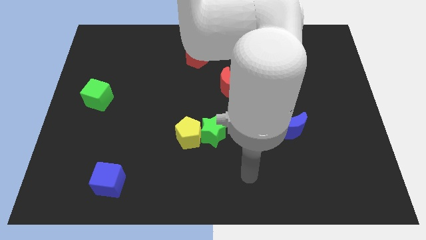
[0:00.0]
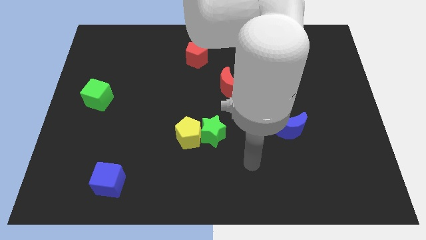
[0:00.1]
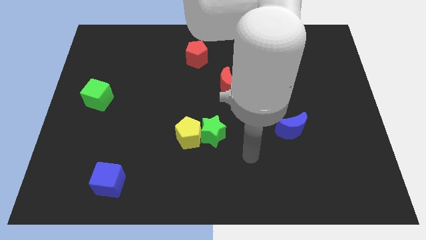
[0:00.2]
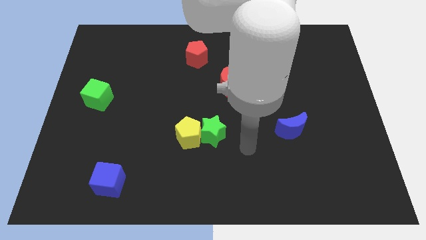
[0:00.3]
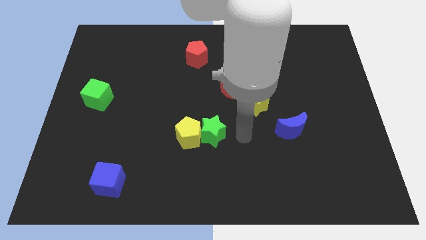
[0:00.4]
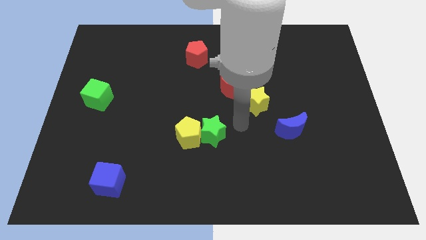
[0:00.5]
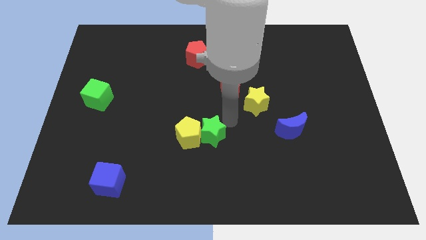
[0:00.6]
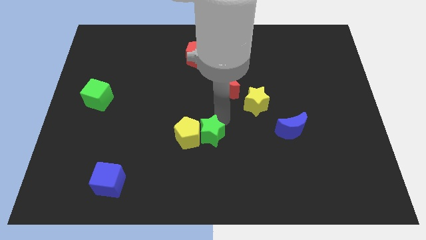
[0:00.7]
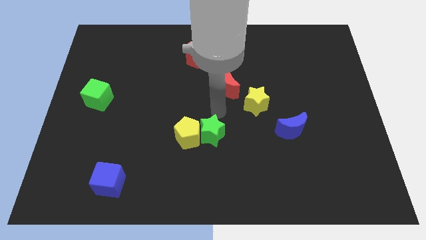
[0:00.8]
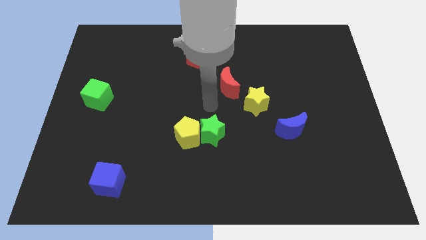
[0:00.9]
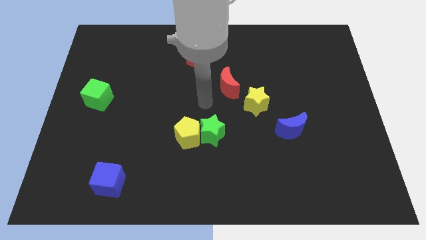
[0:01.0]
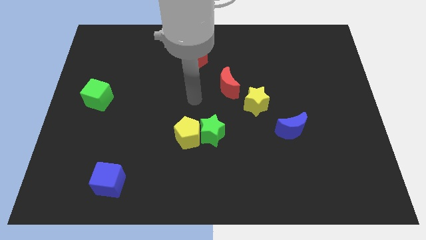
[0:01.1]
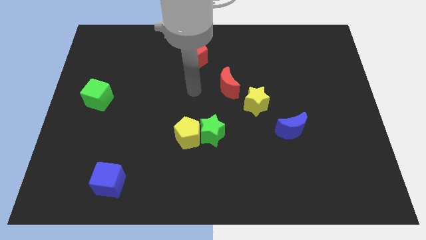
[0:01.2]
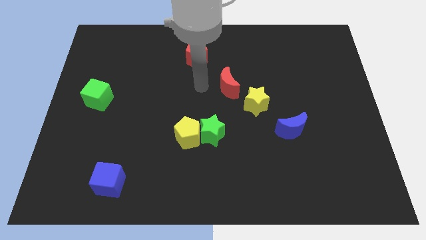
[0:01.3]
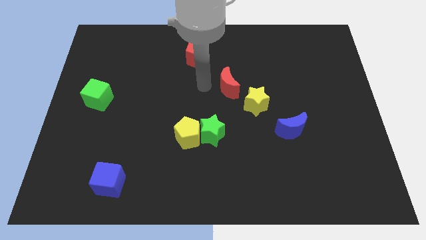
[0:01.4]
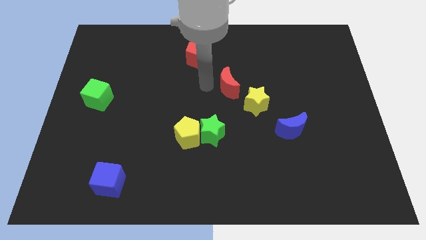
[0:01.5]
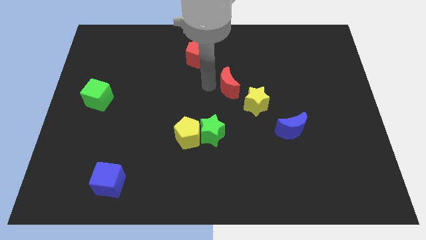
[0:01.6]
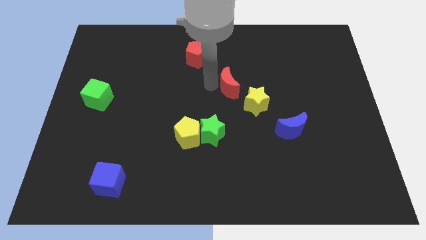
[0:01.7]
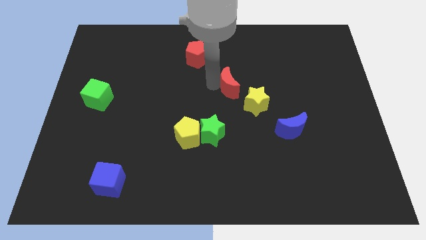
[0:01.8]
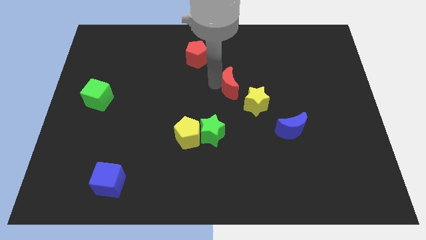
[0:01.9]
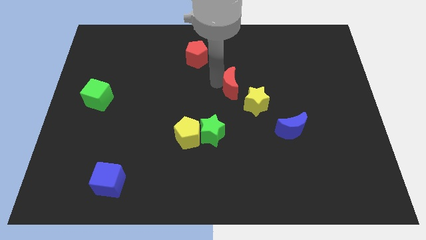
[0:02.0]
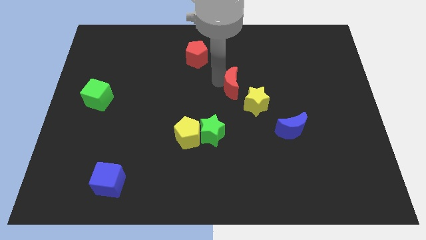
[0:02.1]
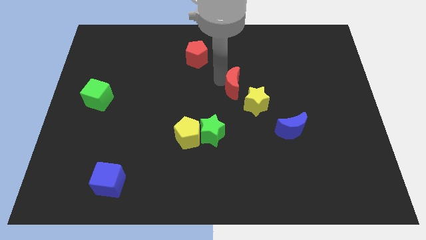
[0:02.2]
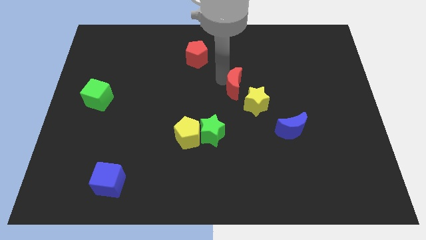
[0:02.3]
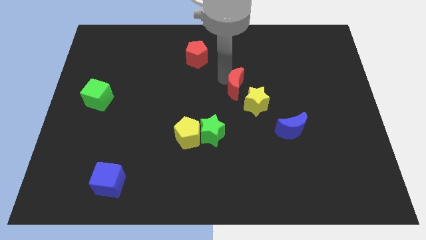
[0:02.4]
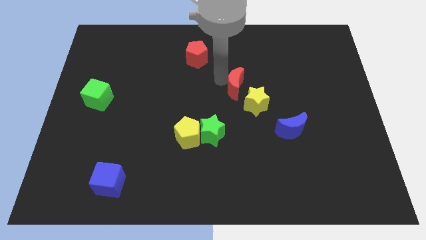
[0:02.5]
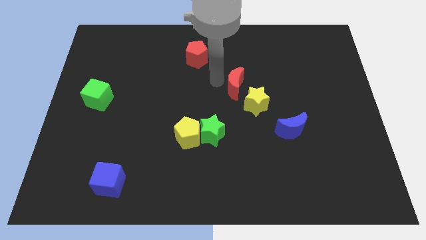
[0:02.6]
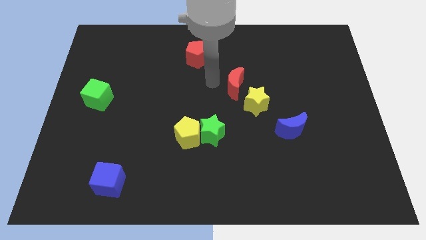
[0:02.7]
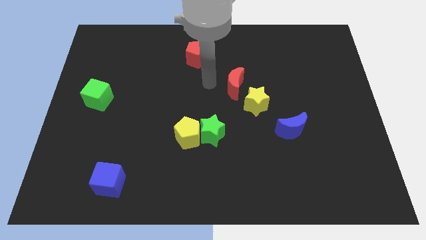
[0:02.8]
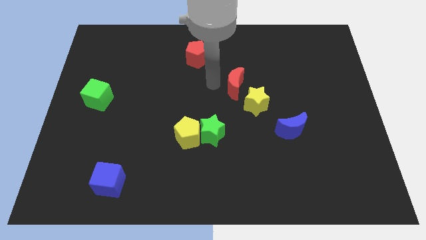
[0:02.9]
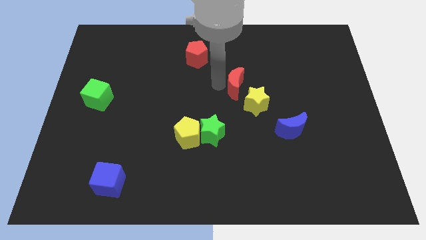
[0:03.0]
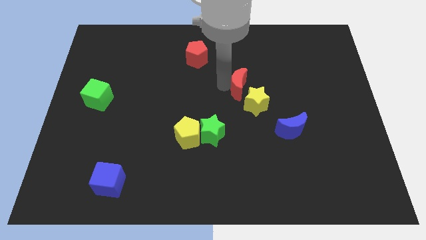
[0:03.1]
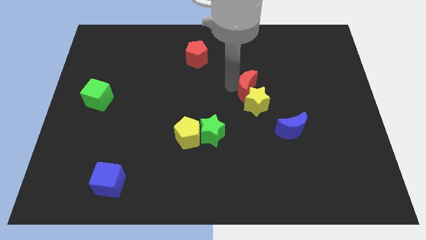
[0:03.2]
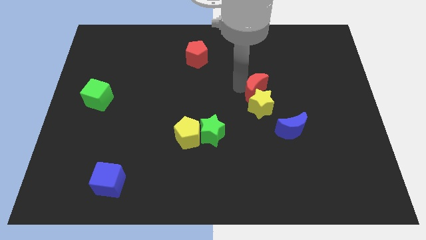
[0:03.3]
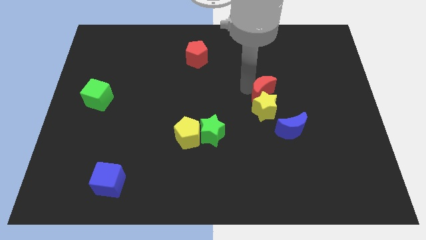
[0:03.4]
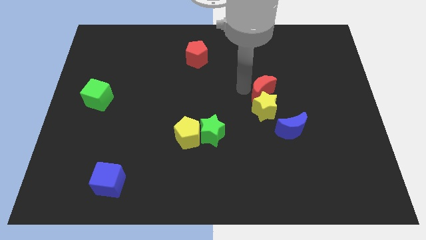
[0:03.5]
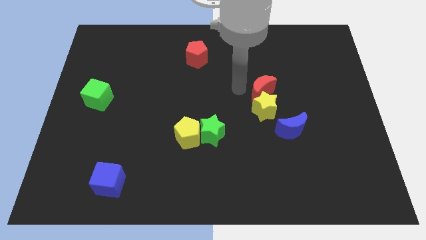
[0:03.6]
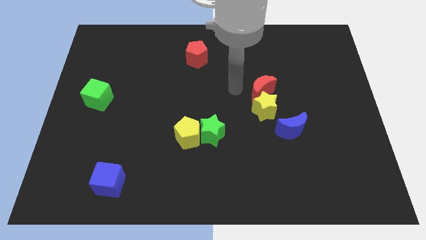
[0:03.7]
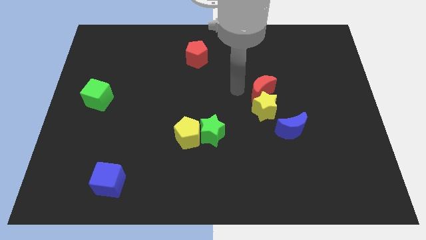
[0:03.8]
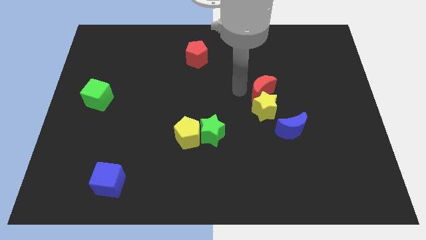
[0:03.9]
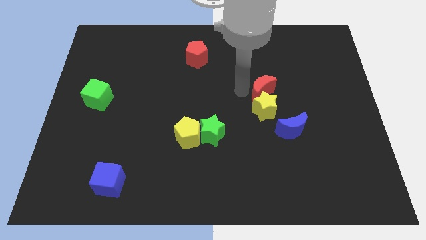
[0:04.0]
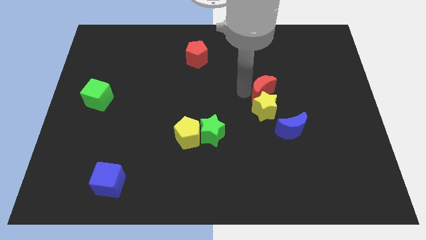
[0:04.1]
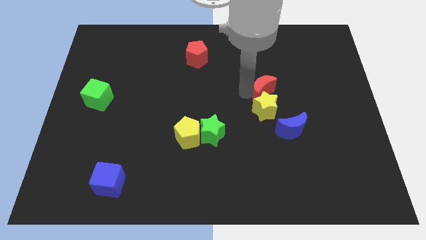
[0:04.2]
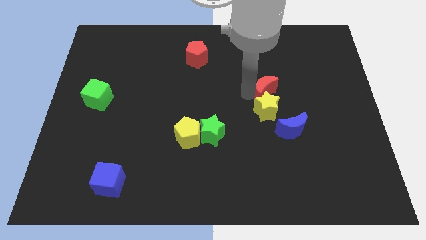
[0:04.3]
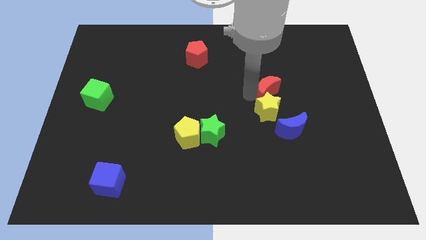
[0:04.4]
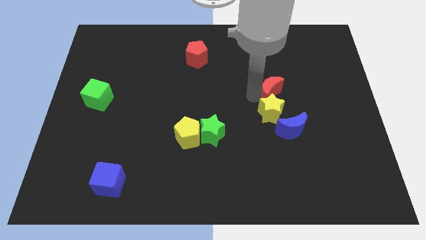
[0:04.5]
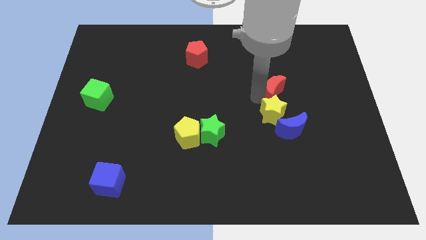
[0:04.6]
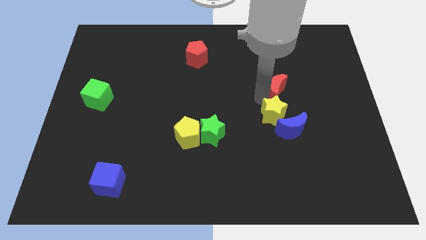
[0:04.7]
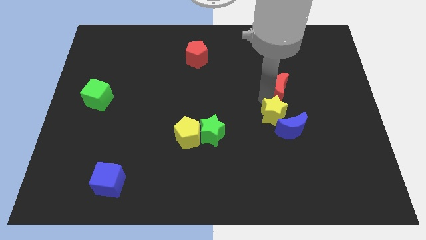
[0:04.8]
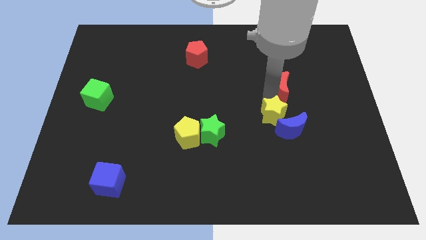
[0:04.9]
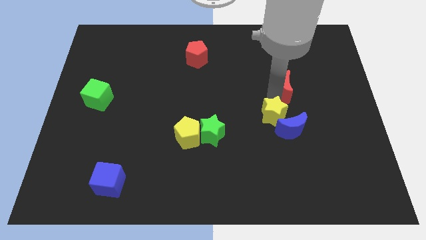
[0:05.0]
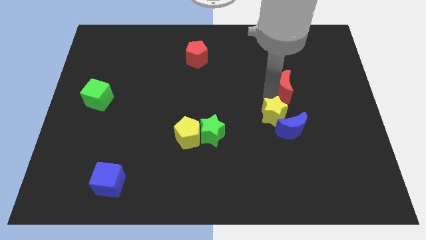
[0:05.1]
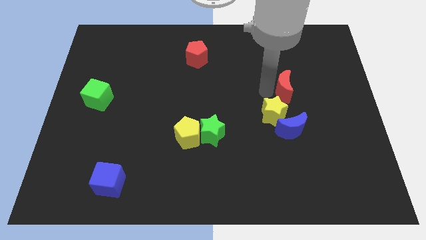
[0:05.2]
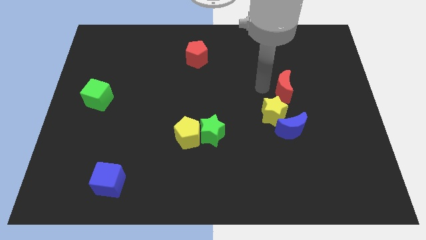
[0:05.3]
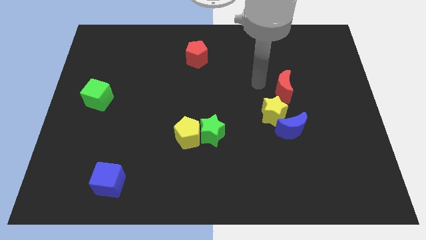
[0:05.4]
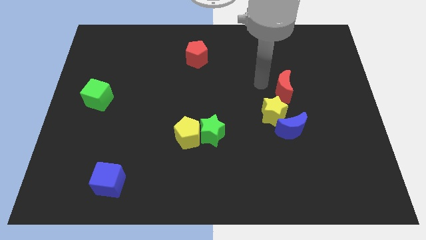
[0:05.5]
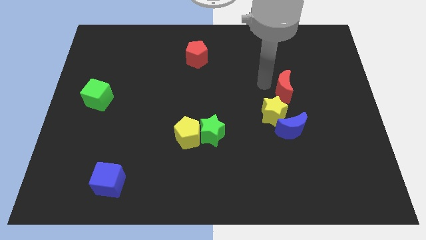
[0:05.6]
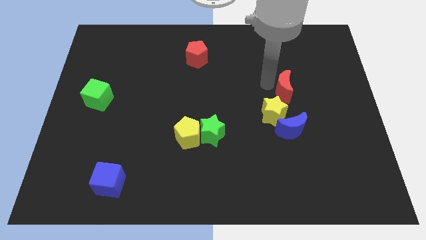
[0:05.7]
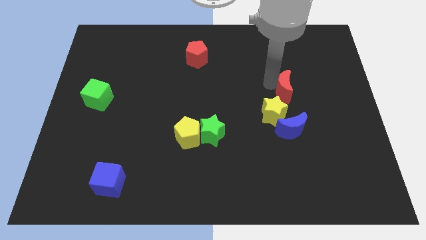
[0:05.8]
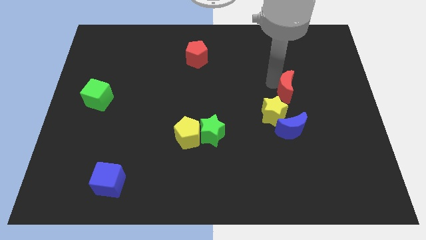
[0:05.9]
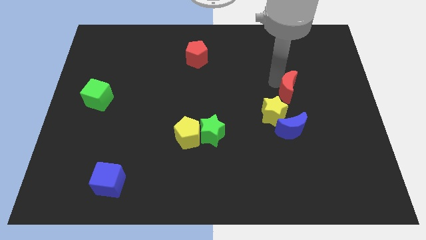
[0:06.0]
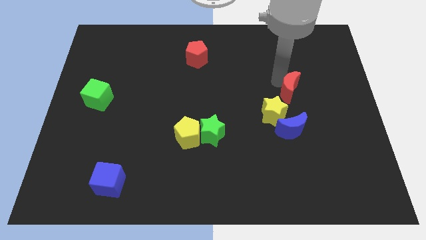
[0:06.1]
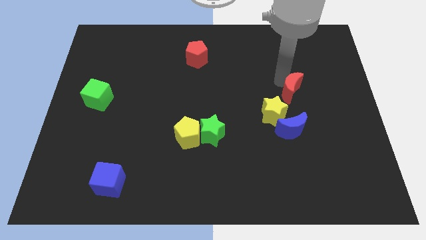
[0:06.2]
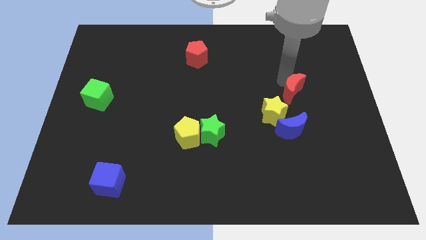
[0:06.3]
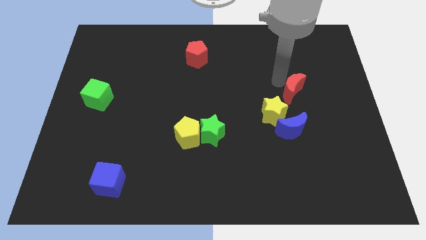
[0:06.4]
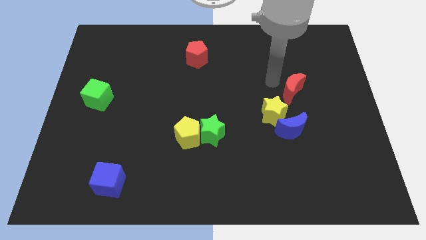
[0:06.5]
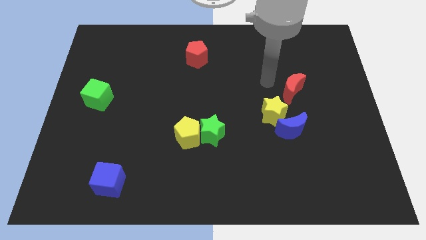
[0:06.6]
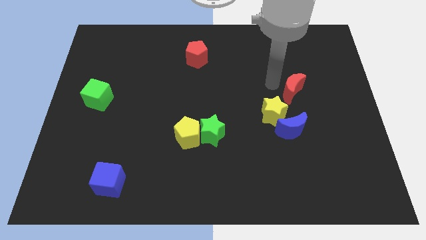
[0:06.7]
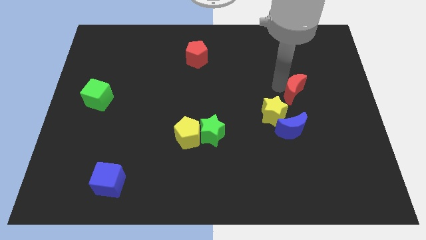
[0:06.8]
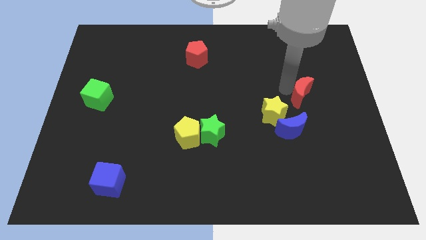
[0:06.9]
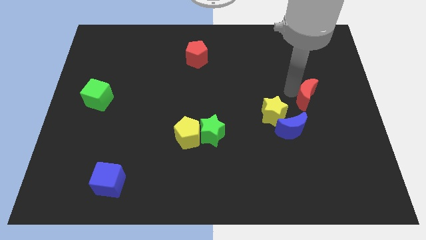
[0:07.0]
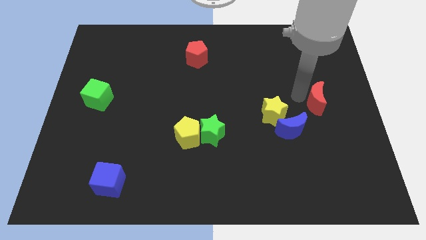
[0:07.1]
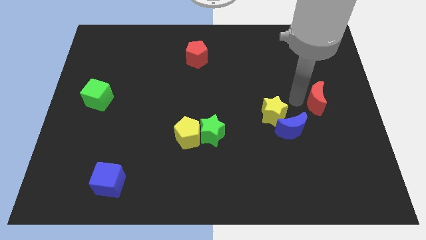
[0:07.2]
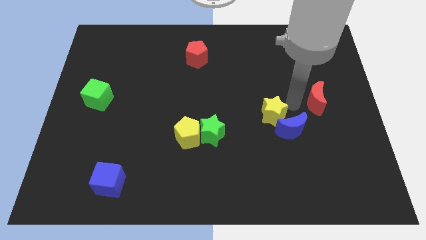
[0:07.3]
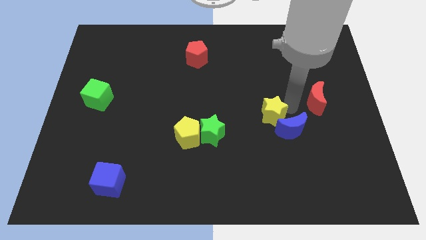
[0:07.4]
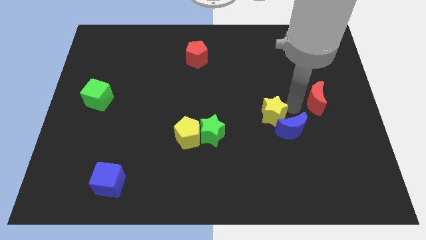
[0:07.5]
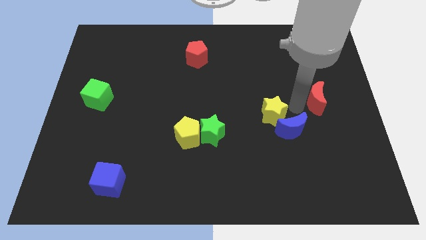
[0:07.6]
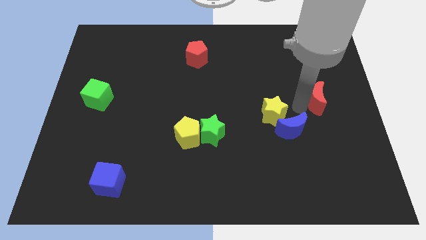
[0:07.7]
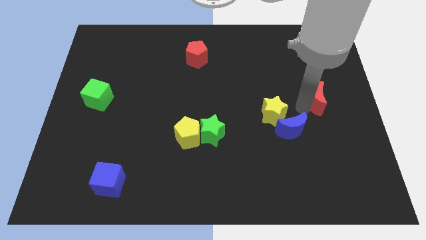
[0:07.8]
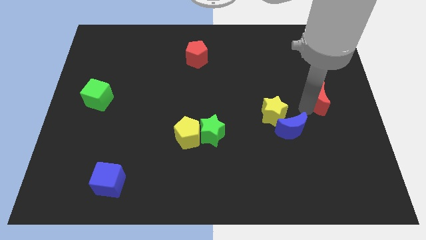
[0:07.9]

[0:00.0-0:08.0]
slide the red moon to the right side of the board
